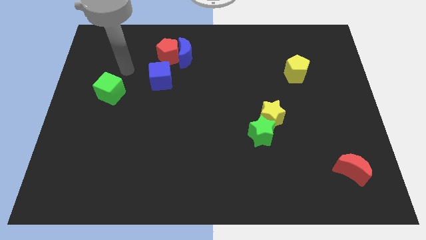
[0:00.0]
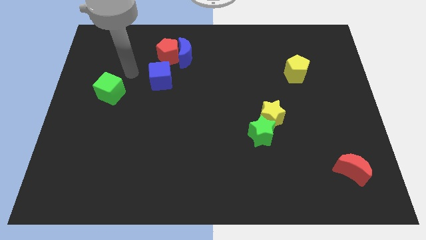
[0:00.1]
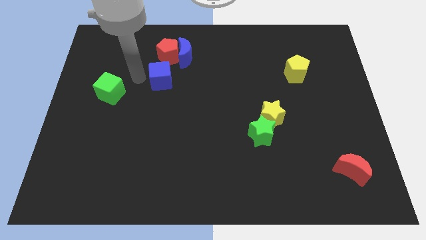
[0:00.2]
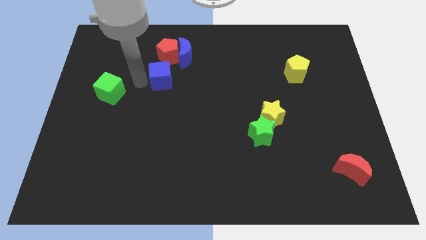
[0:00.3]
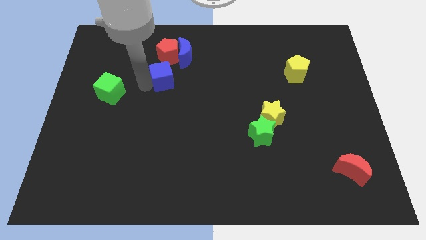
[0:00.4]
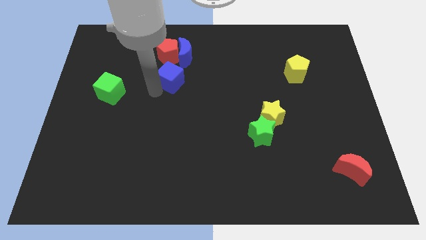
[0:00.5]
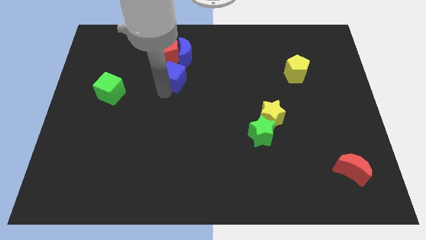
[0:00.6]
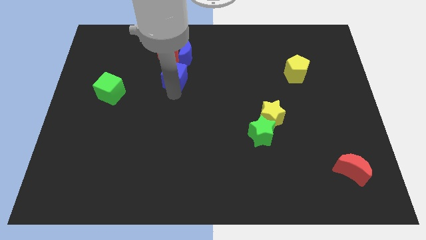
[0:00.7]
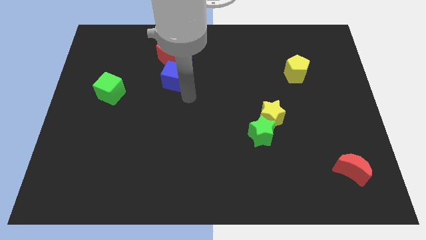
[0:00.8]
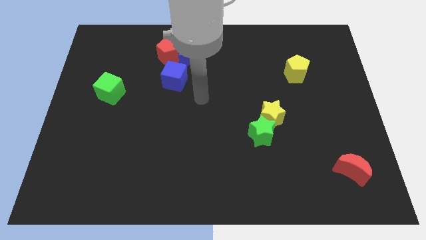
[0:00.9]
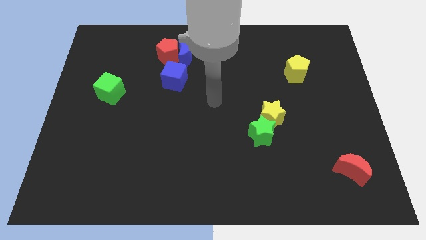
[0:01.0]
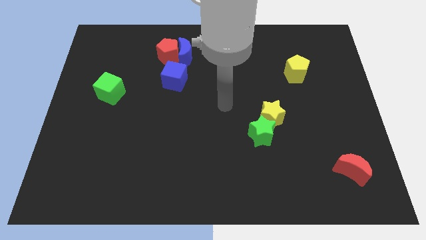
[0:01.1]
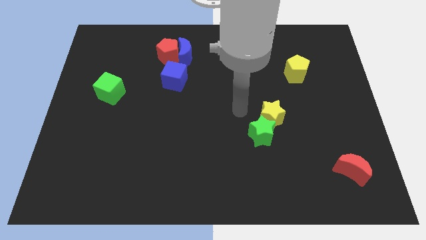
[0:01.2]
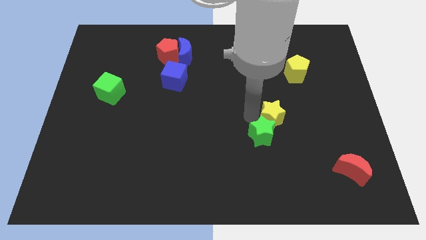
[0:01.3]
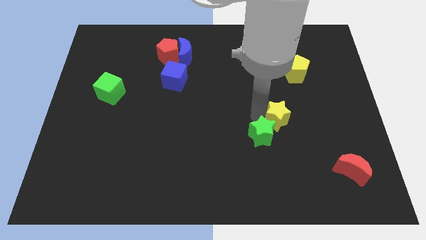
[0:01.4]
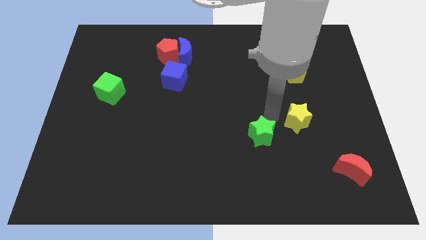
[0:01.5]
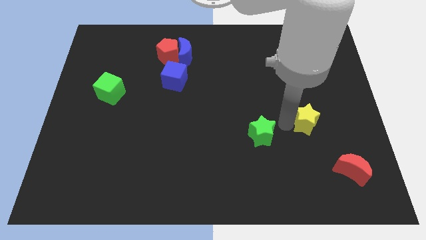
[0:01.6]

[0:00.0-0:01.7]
move the green star away from the yellow star

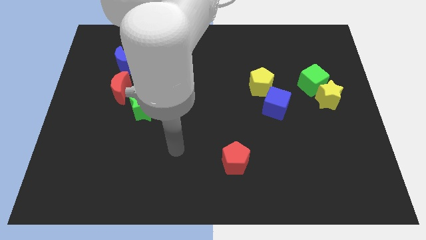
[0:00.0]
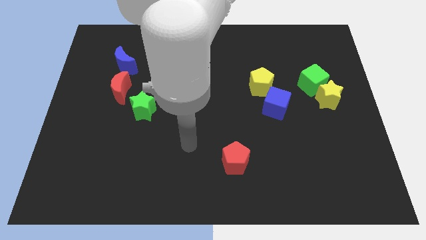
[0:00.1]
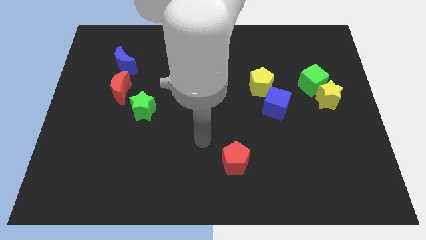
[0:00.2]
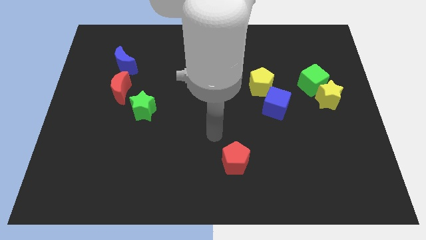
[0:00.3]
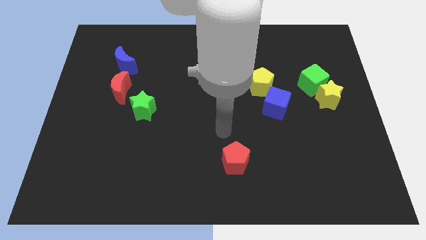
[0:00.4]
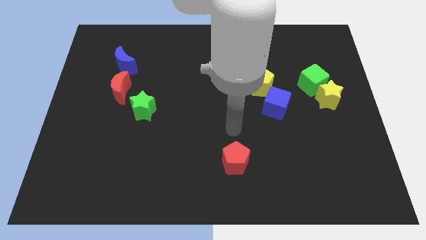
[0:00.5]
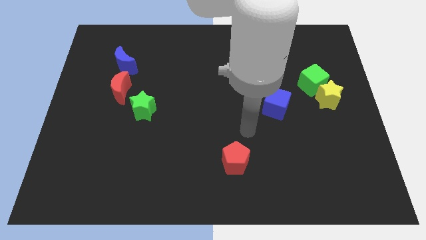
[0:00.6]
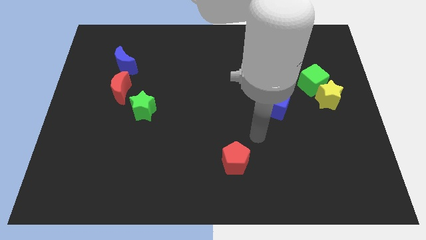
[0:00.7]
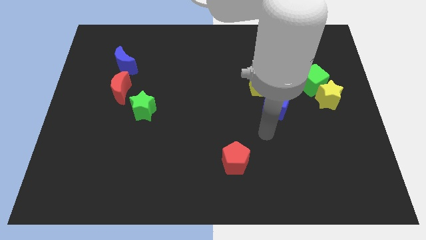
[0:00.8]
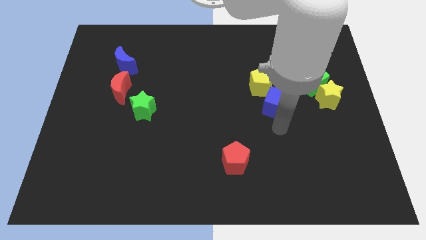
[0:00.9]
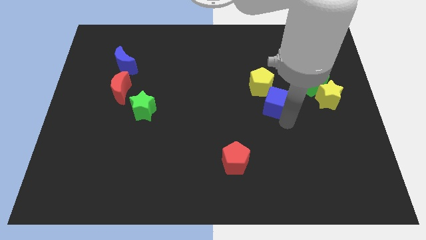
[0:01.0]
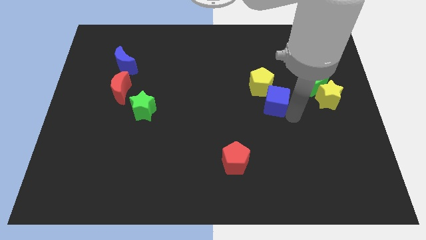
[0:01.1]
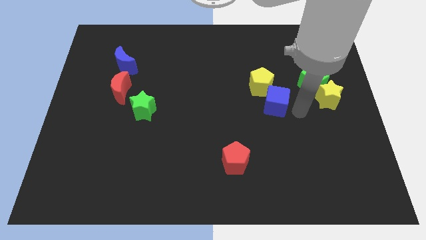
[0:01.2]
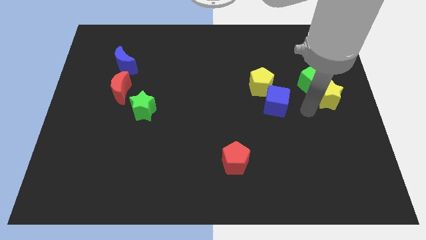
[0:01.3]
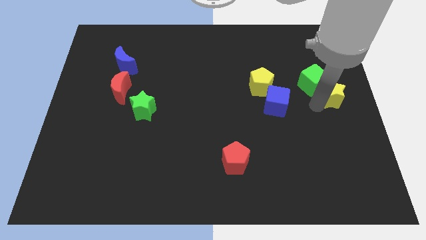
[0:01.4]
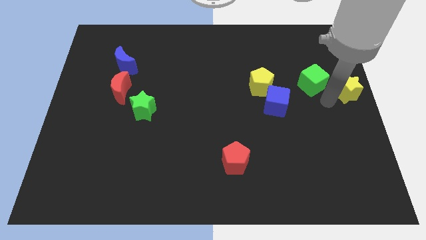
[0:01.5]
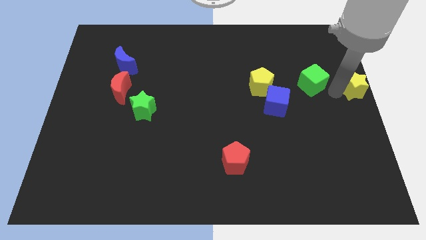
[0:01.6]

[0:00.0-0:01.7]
pull the green cube apart from the yellow star

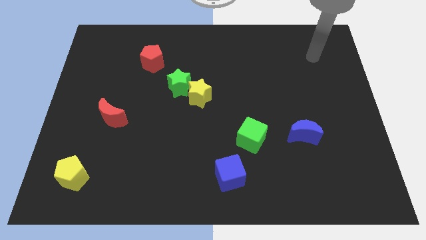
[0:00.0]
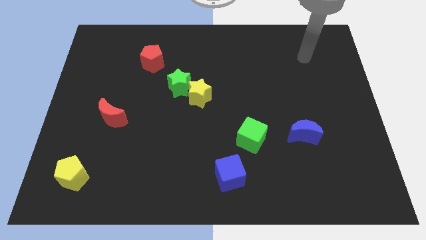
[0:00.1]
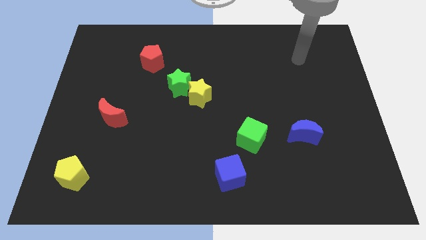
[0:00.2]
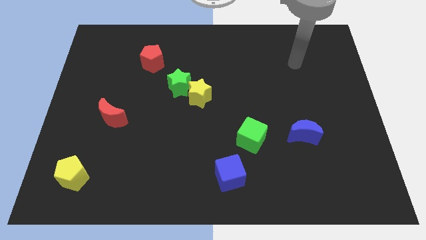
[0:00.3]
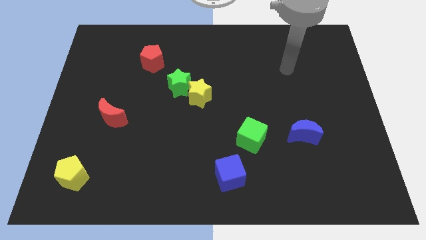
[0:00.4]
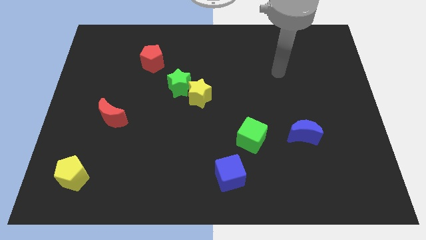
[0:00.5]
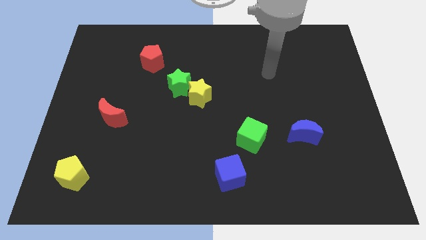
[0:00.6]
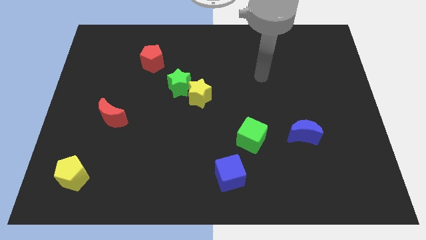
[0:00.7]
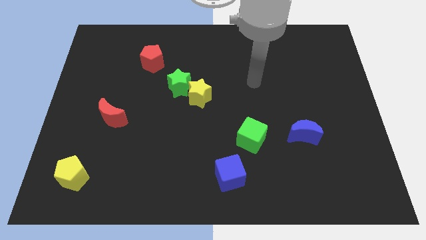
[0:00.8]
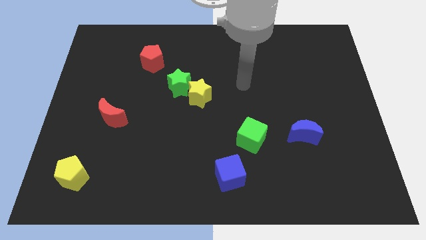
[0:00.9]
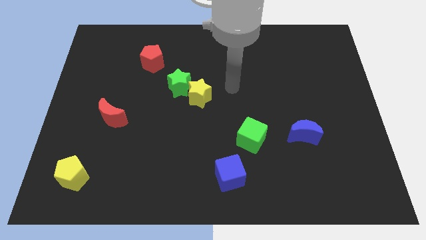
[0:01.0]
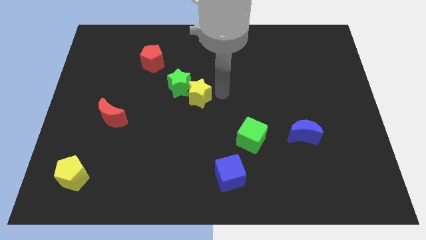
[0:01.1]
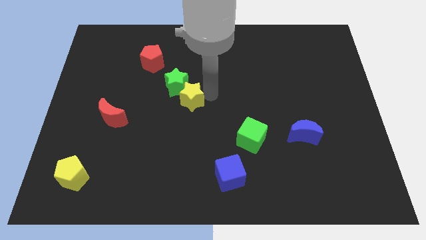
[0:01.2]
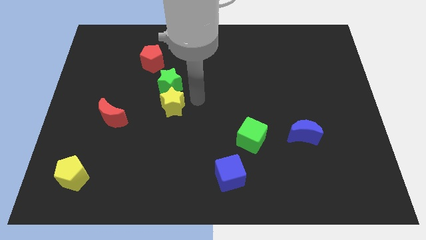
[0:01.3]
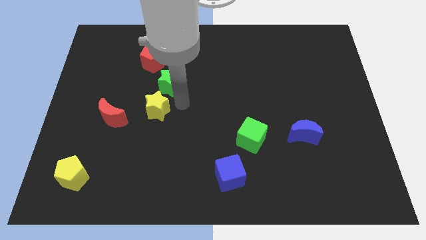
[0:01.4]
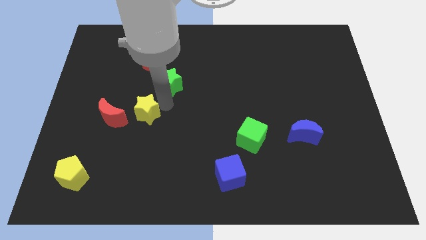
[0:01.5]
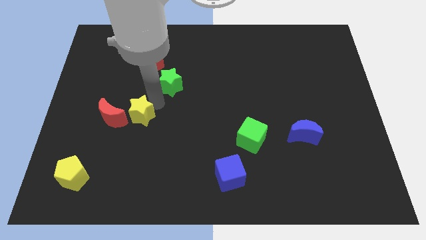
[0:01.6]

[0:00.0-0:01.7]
separate the green star from the yellow star

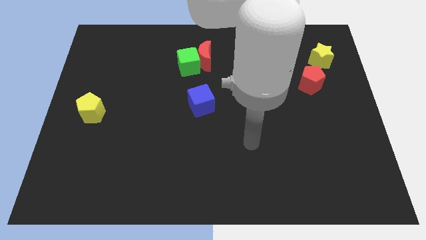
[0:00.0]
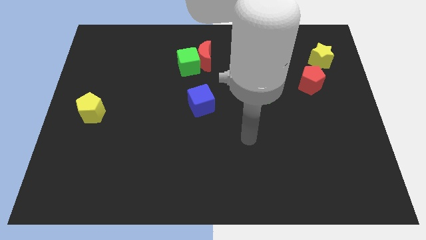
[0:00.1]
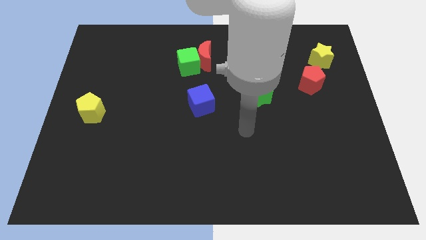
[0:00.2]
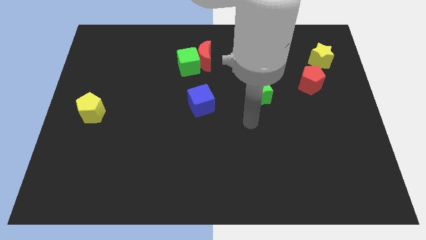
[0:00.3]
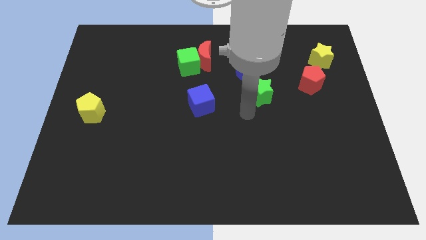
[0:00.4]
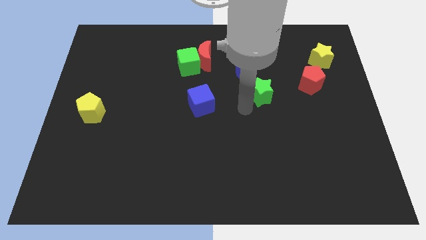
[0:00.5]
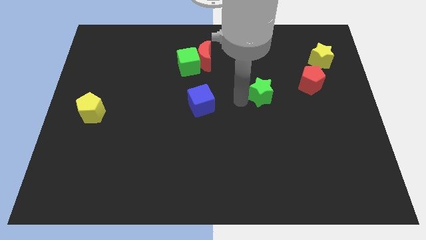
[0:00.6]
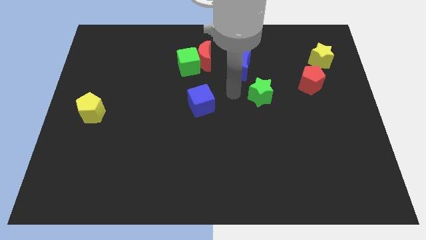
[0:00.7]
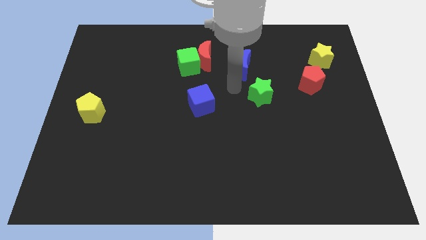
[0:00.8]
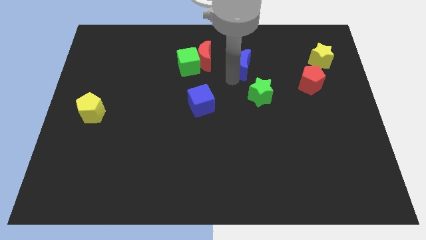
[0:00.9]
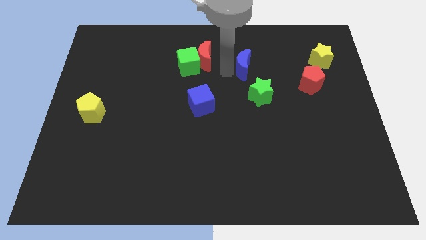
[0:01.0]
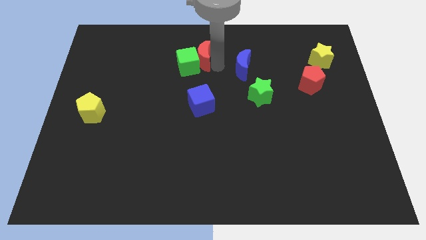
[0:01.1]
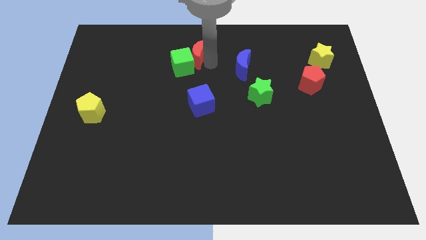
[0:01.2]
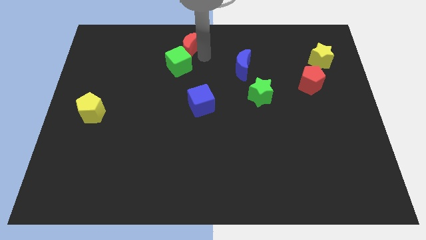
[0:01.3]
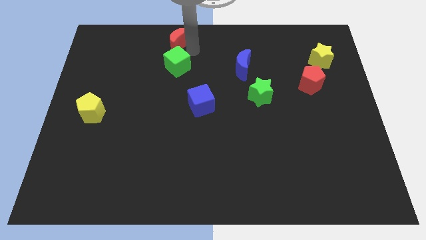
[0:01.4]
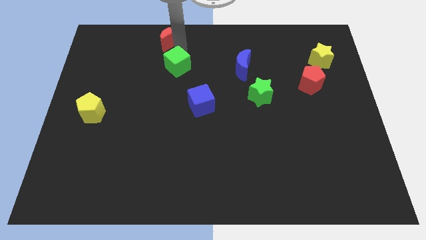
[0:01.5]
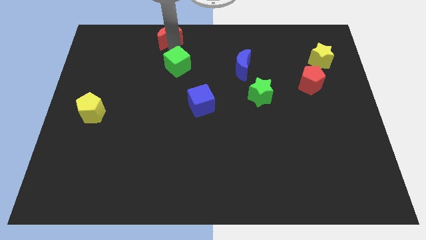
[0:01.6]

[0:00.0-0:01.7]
pull the green cube apart from the red moon

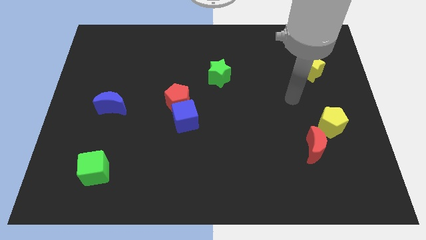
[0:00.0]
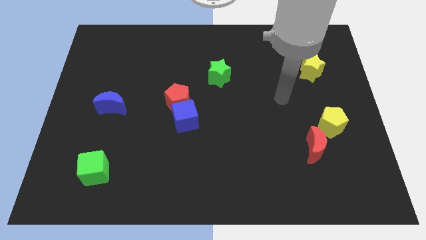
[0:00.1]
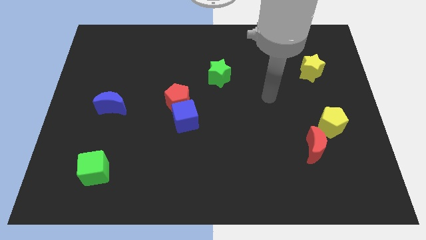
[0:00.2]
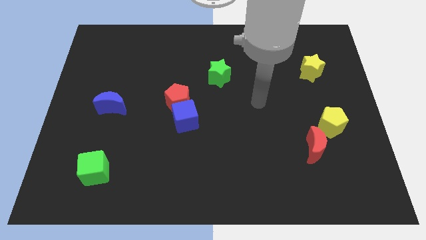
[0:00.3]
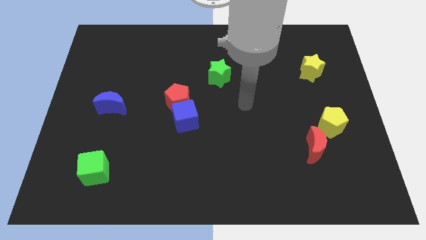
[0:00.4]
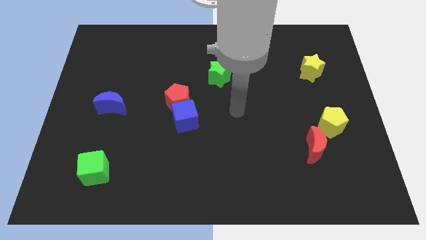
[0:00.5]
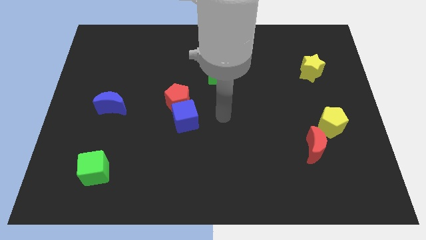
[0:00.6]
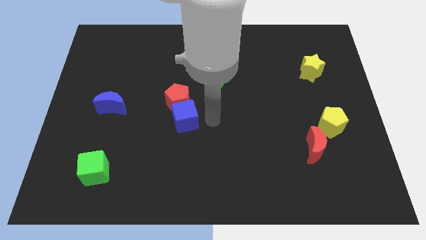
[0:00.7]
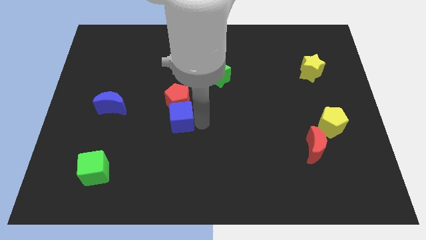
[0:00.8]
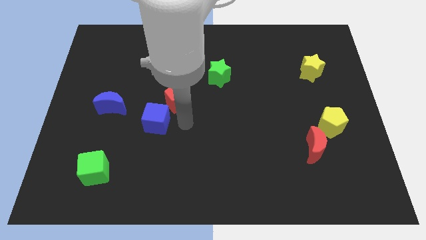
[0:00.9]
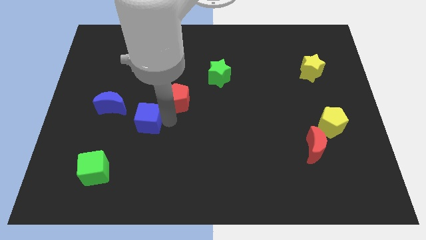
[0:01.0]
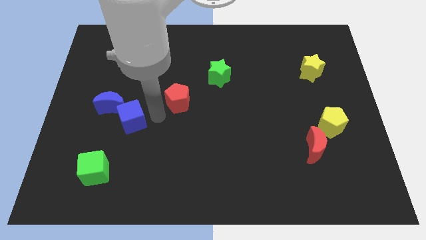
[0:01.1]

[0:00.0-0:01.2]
move the red pentagon away from the blue cube

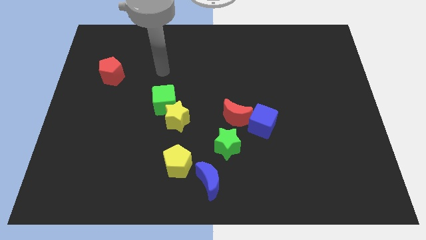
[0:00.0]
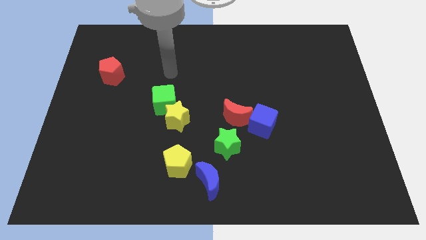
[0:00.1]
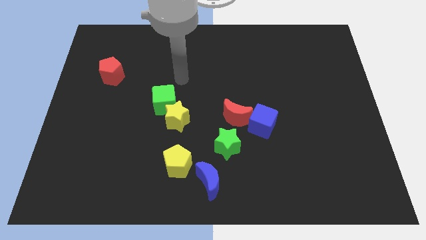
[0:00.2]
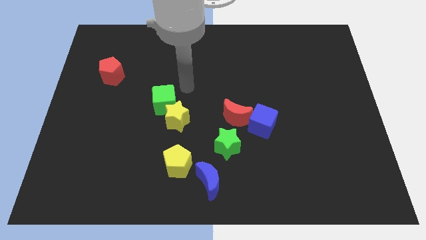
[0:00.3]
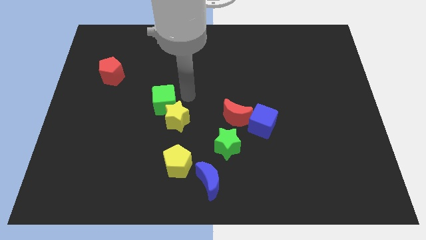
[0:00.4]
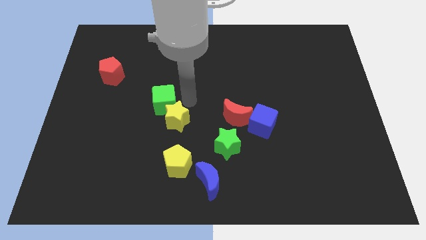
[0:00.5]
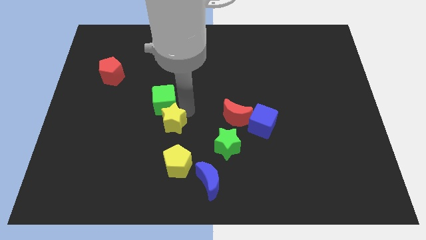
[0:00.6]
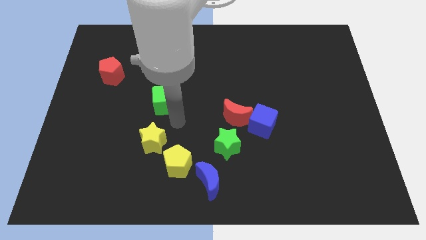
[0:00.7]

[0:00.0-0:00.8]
separate the green cube from the yellow star

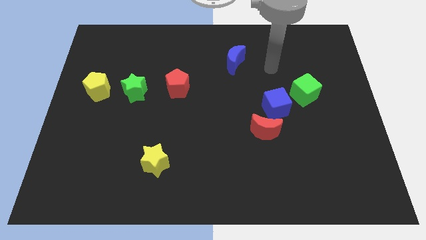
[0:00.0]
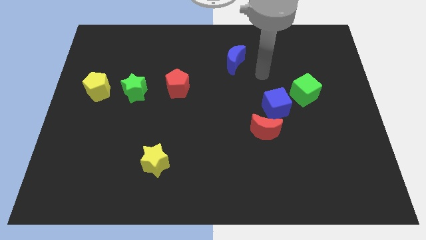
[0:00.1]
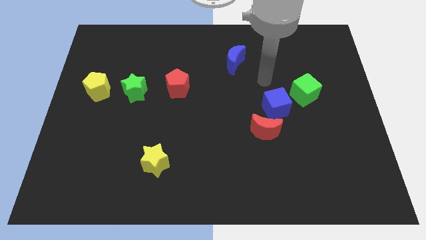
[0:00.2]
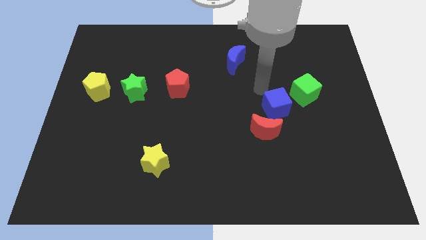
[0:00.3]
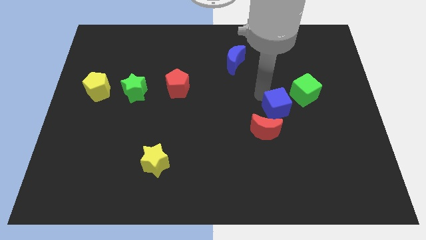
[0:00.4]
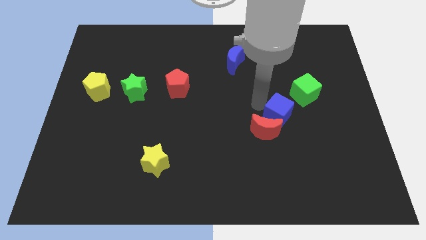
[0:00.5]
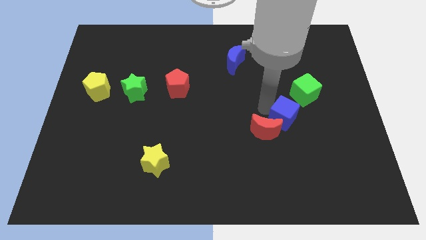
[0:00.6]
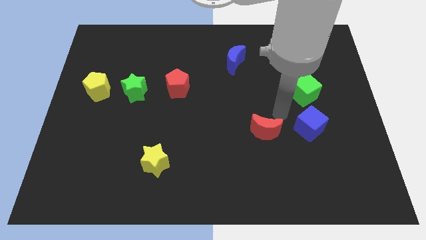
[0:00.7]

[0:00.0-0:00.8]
pull the red moon apart from the blue cube
